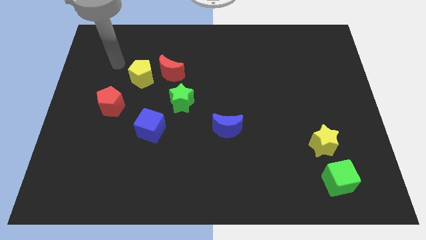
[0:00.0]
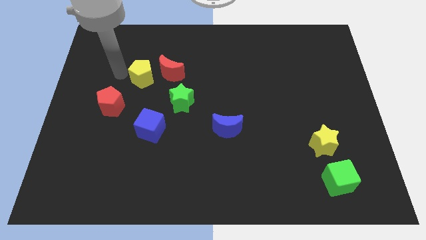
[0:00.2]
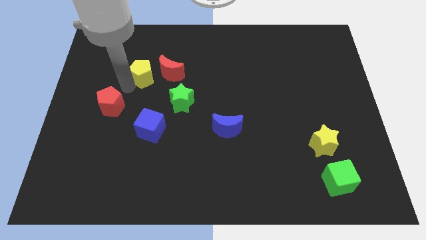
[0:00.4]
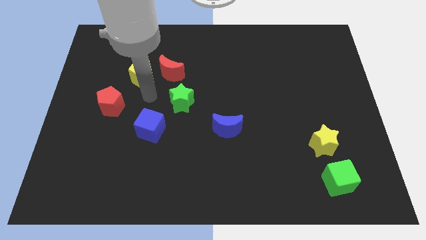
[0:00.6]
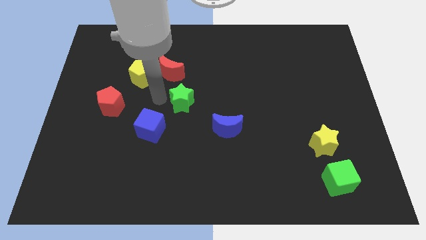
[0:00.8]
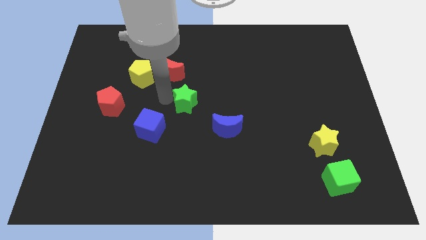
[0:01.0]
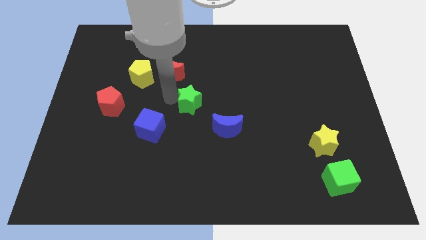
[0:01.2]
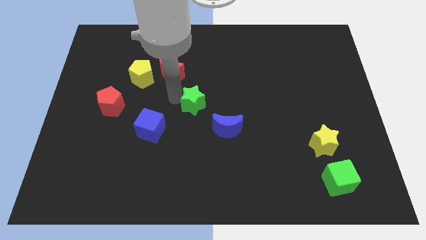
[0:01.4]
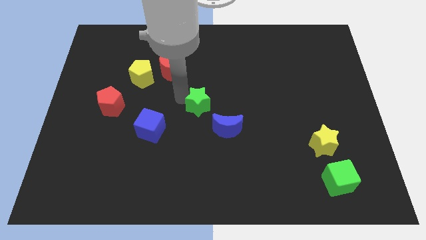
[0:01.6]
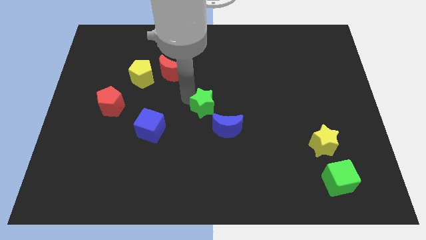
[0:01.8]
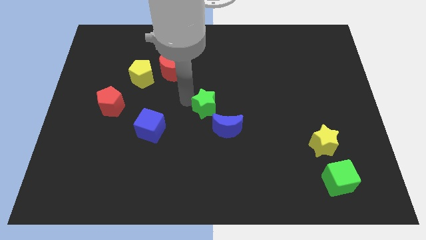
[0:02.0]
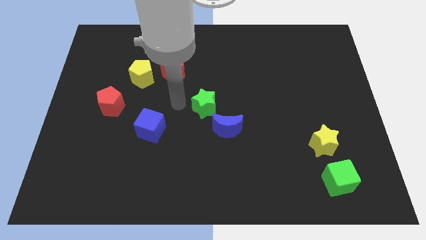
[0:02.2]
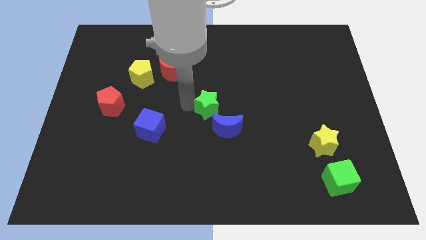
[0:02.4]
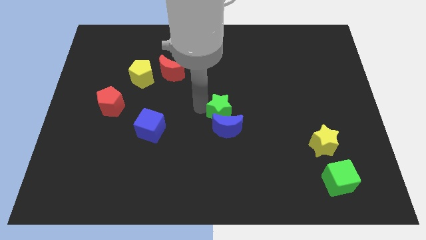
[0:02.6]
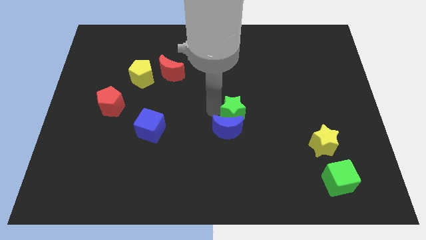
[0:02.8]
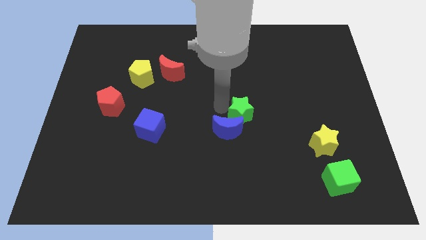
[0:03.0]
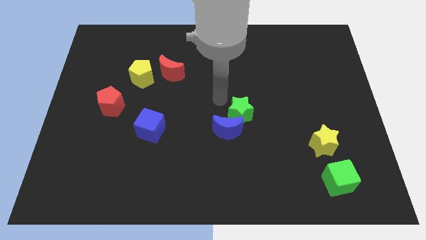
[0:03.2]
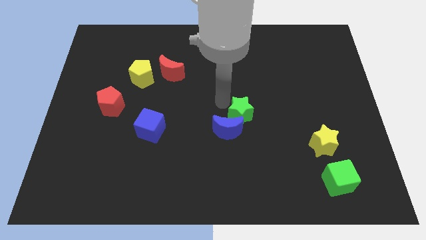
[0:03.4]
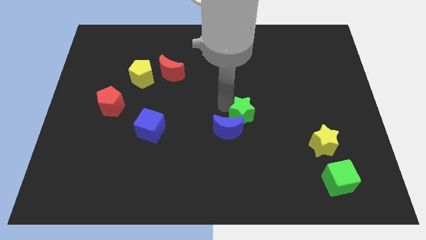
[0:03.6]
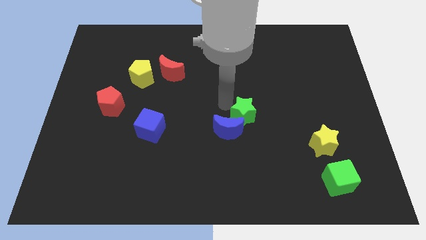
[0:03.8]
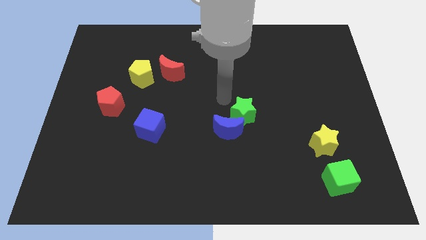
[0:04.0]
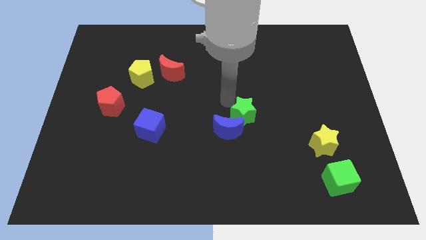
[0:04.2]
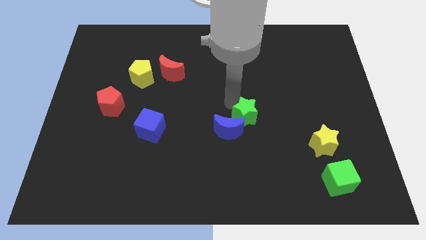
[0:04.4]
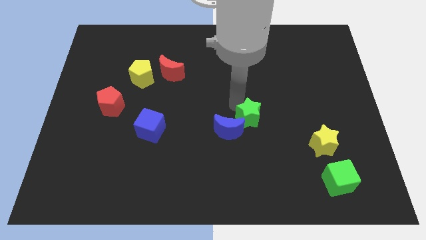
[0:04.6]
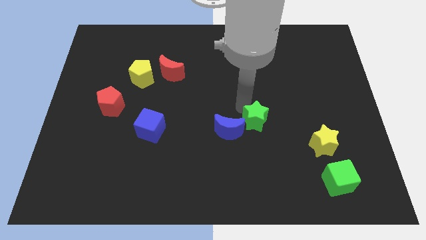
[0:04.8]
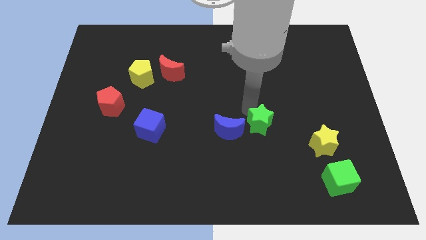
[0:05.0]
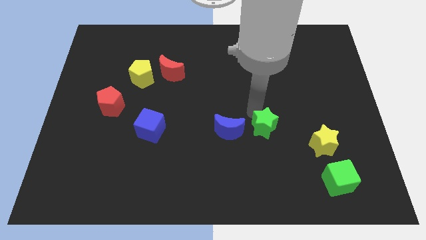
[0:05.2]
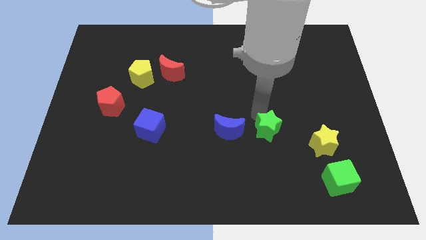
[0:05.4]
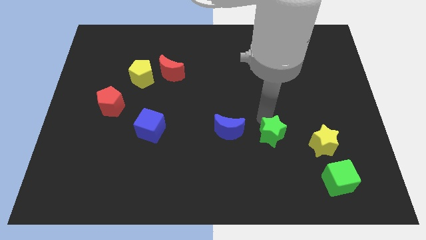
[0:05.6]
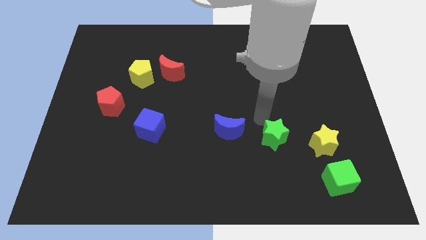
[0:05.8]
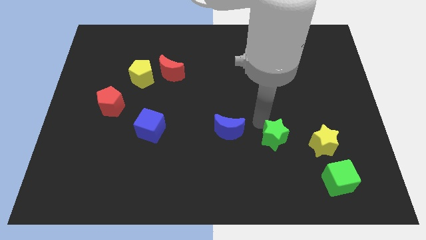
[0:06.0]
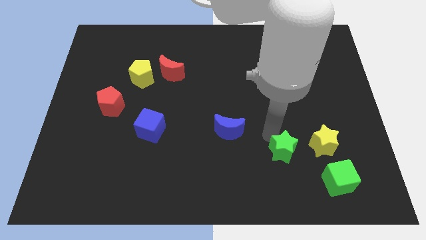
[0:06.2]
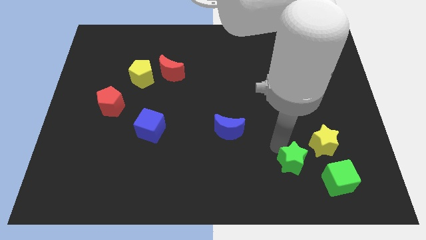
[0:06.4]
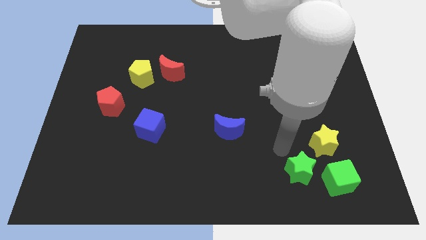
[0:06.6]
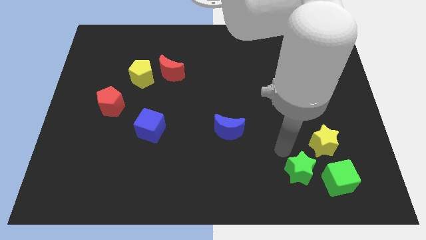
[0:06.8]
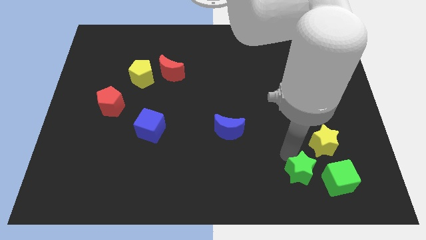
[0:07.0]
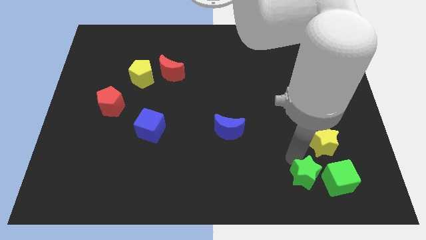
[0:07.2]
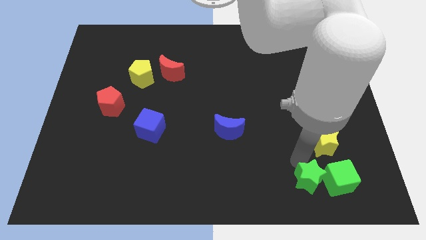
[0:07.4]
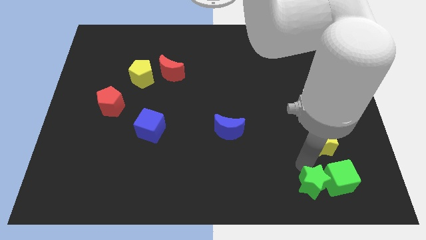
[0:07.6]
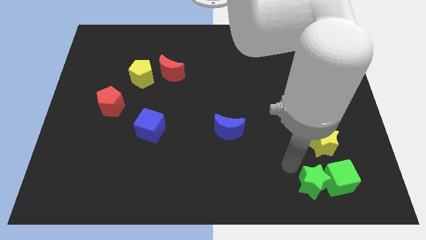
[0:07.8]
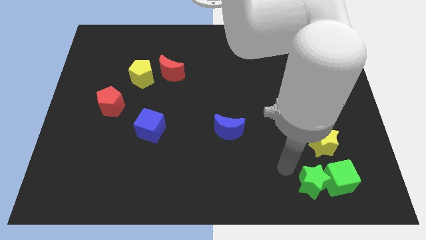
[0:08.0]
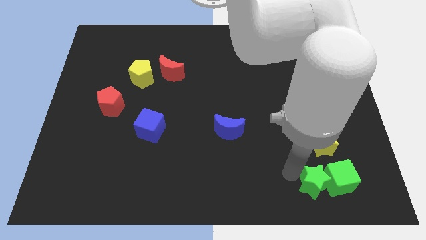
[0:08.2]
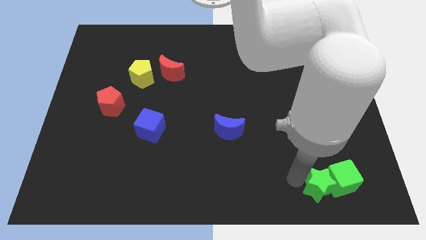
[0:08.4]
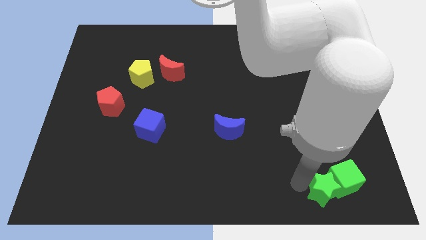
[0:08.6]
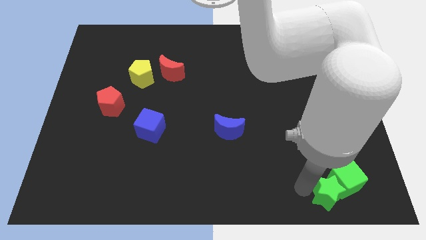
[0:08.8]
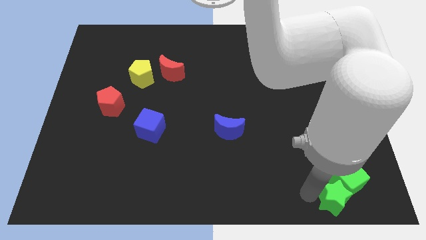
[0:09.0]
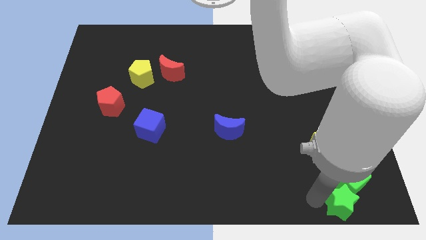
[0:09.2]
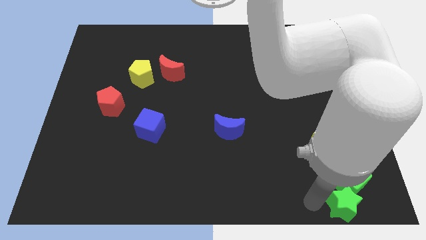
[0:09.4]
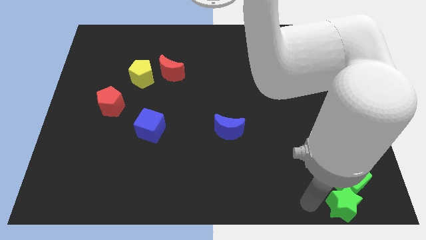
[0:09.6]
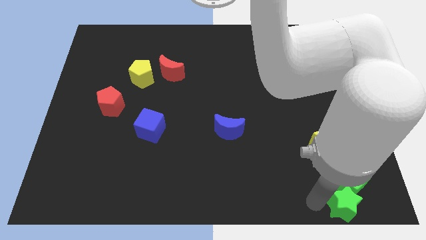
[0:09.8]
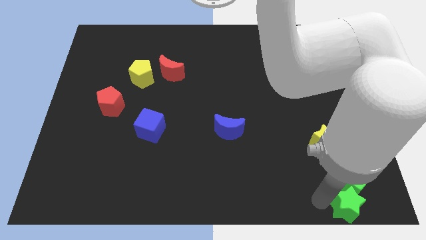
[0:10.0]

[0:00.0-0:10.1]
slide the green star to the lower right corner

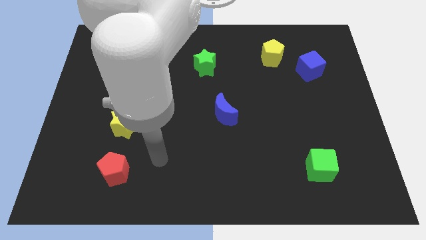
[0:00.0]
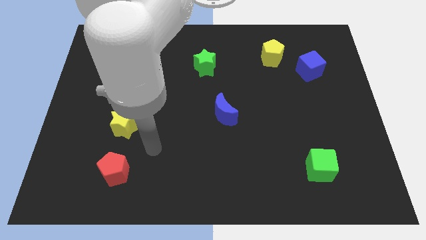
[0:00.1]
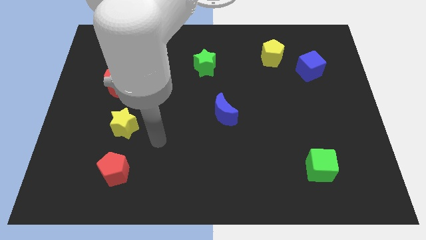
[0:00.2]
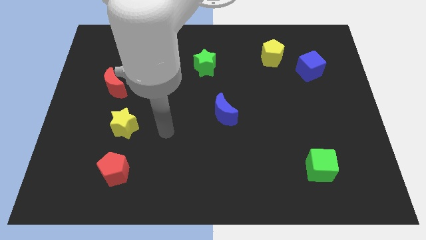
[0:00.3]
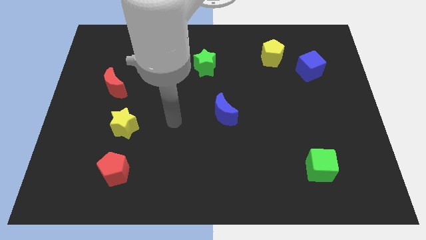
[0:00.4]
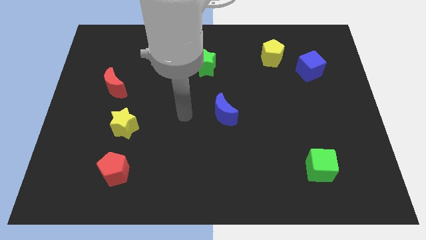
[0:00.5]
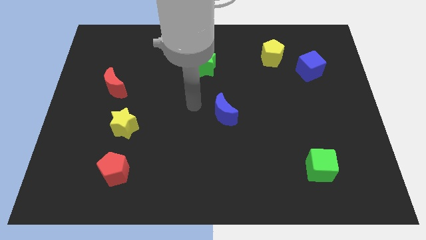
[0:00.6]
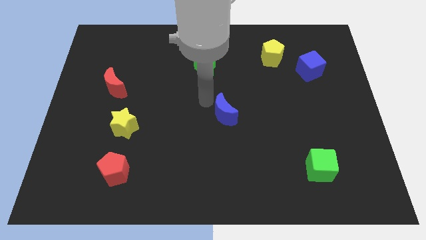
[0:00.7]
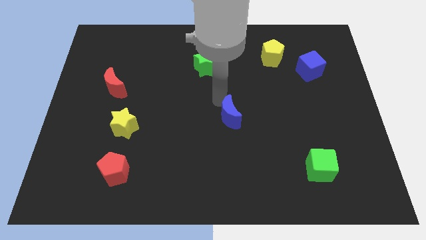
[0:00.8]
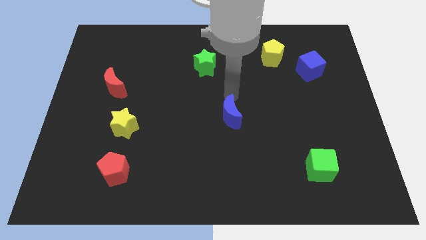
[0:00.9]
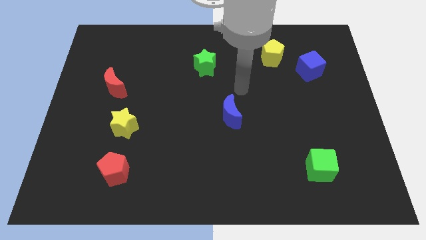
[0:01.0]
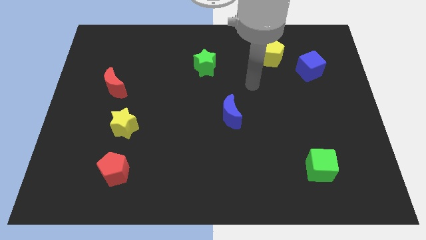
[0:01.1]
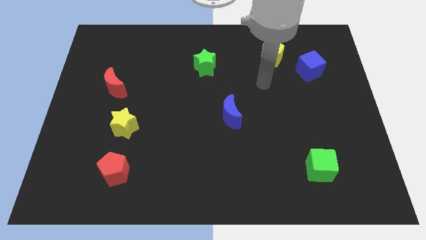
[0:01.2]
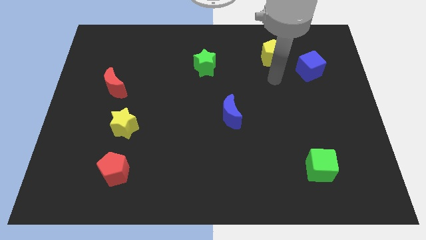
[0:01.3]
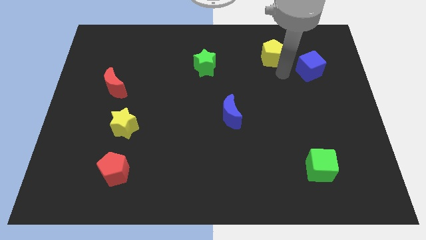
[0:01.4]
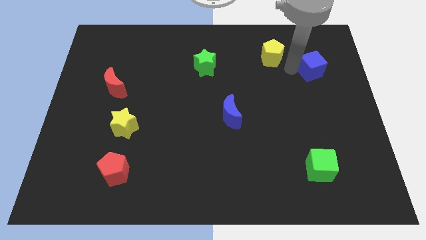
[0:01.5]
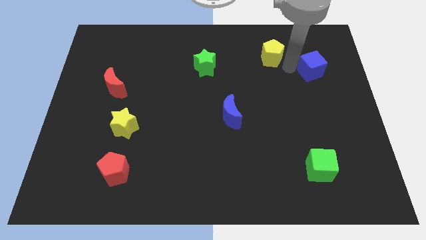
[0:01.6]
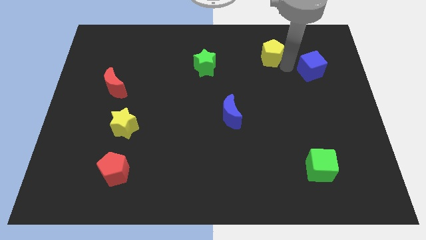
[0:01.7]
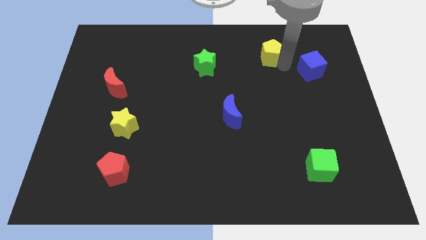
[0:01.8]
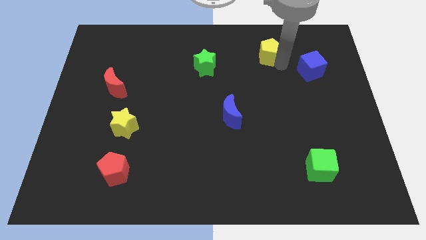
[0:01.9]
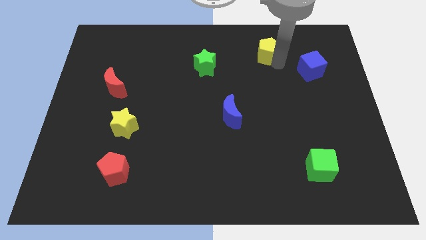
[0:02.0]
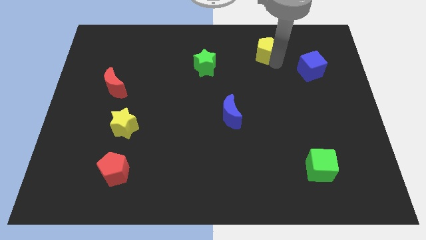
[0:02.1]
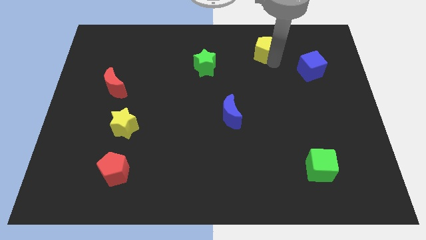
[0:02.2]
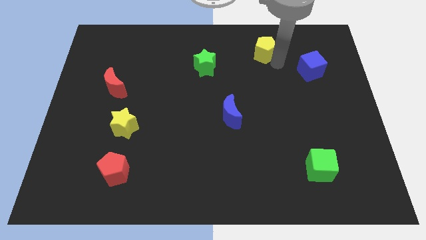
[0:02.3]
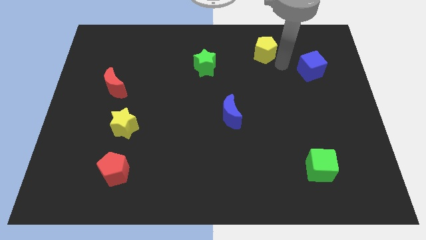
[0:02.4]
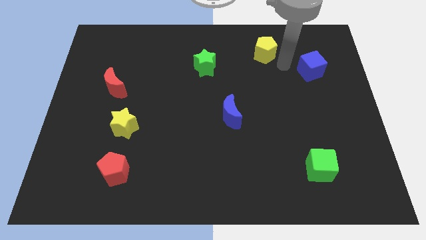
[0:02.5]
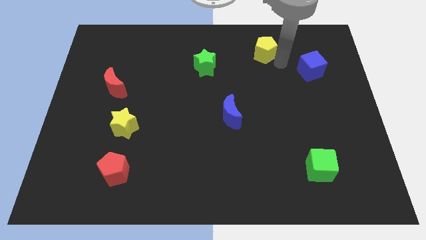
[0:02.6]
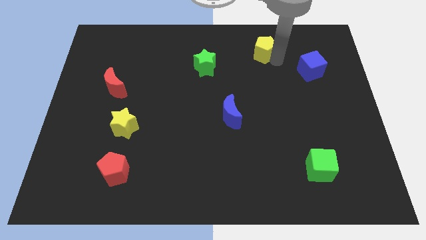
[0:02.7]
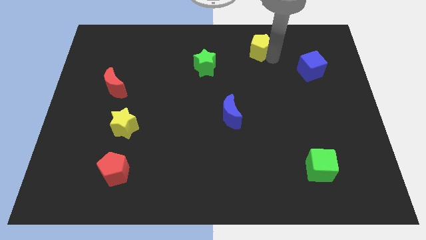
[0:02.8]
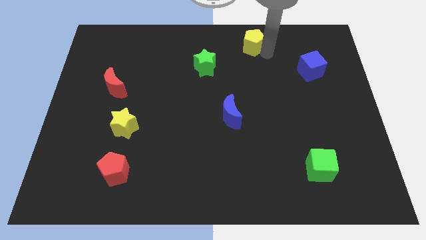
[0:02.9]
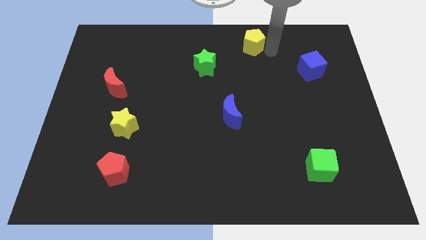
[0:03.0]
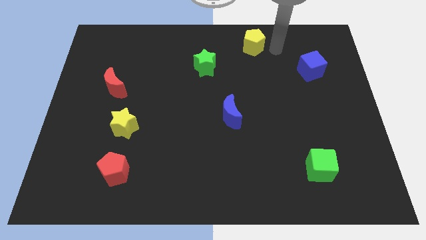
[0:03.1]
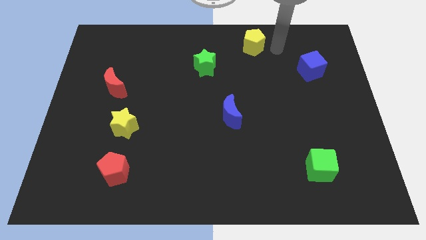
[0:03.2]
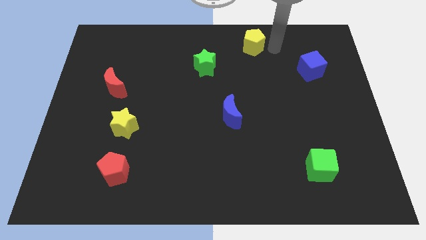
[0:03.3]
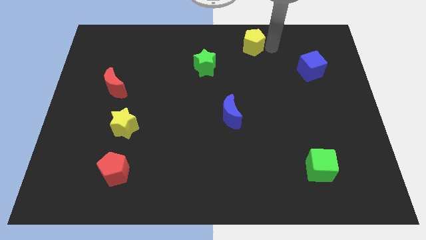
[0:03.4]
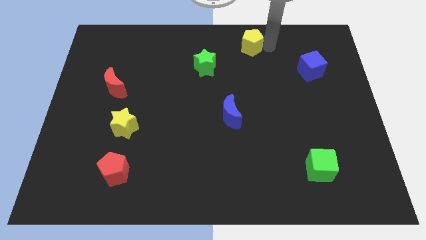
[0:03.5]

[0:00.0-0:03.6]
push the yellow pentagon to the towards your base
